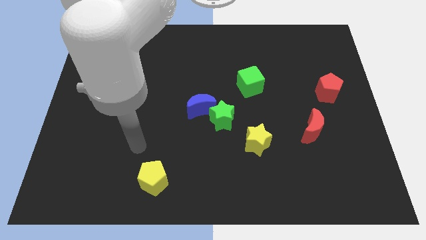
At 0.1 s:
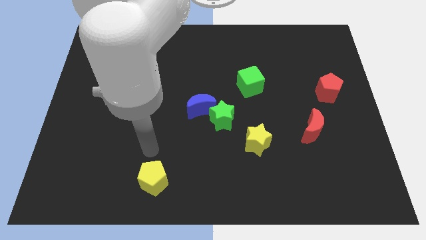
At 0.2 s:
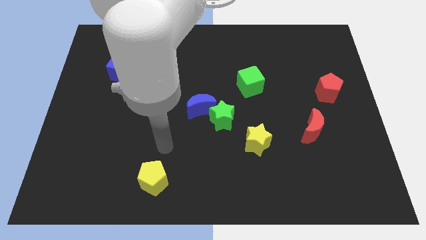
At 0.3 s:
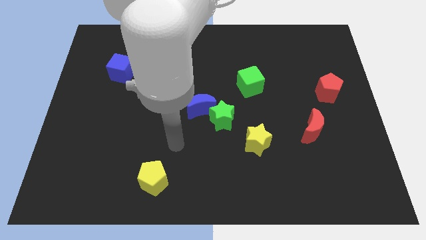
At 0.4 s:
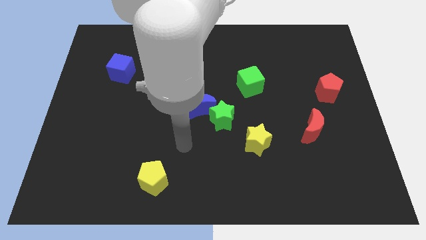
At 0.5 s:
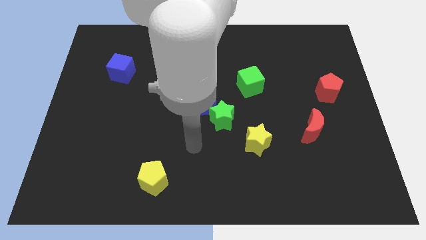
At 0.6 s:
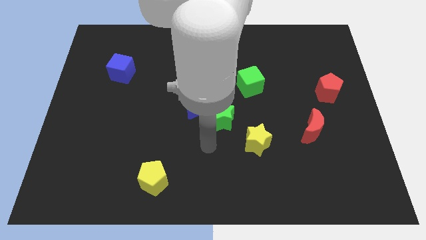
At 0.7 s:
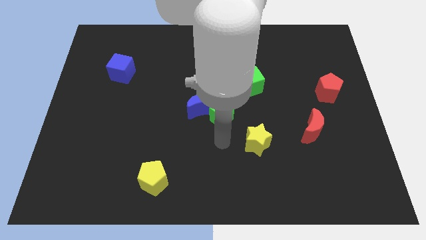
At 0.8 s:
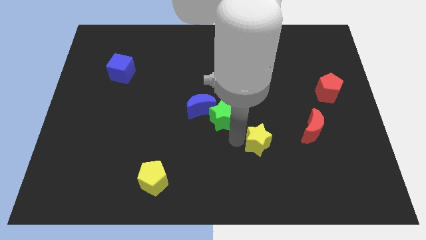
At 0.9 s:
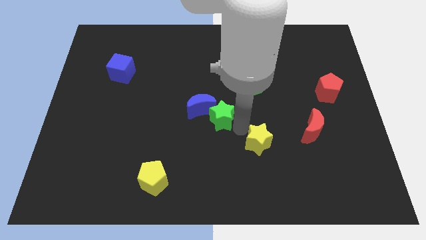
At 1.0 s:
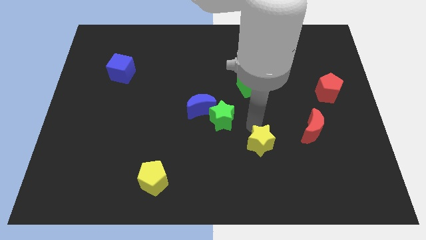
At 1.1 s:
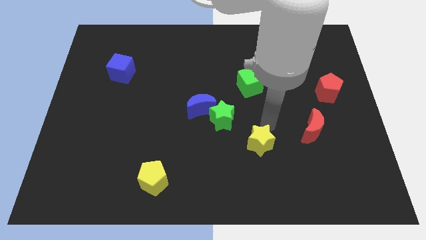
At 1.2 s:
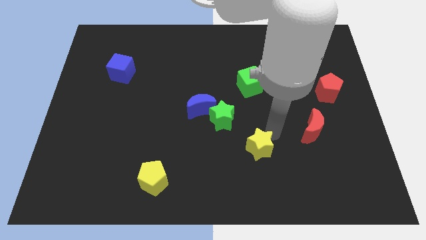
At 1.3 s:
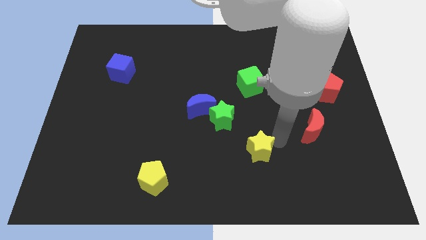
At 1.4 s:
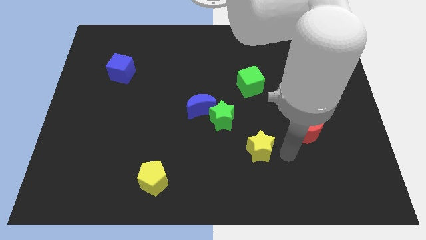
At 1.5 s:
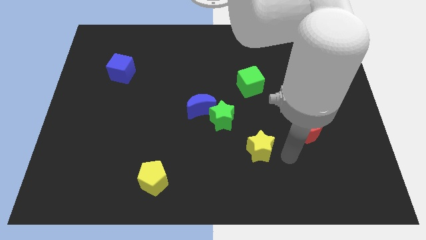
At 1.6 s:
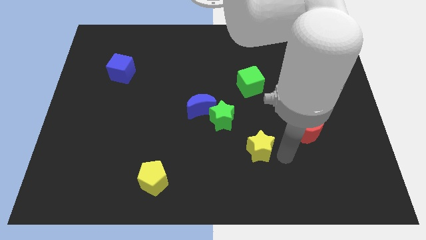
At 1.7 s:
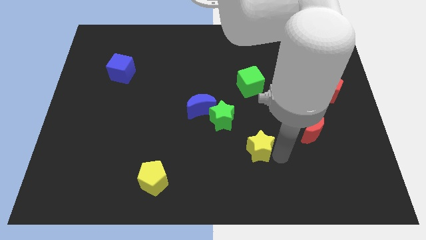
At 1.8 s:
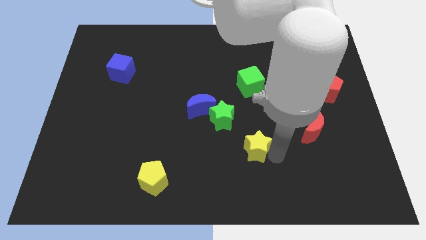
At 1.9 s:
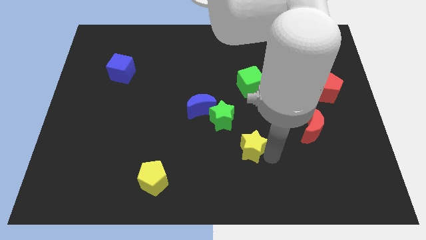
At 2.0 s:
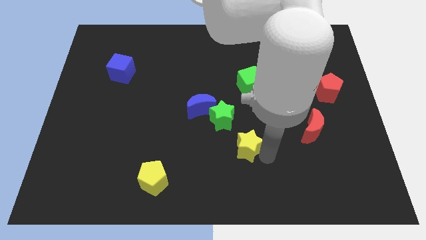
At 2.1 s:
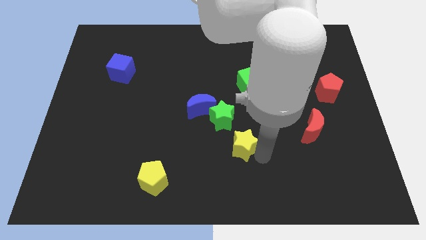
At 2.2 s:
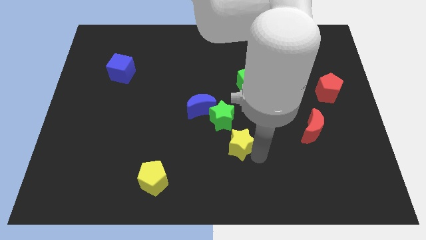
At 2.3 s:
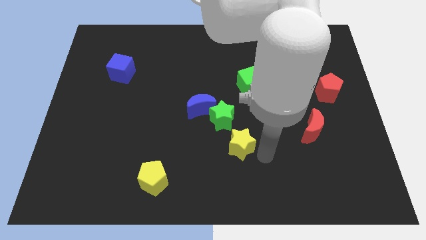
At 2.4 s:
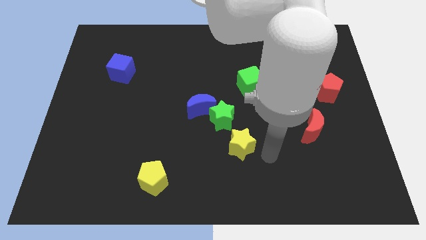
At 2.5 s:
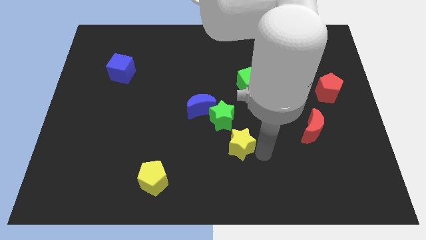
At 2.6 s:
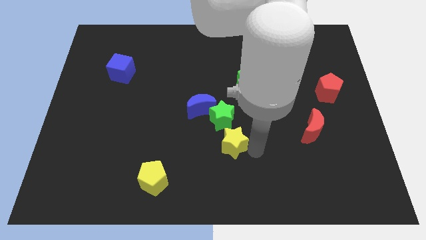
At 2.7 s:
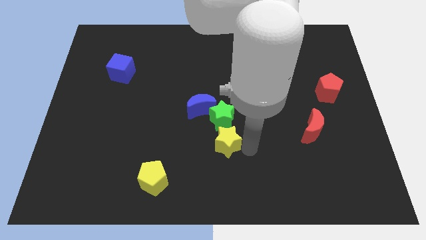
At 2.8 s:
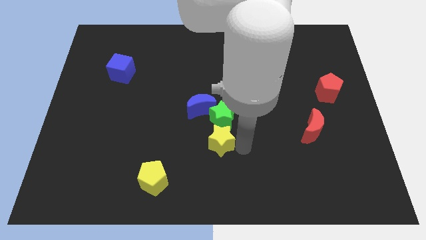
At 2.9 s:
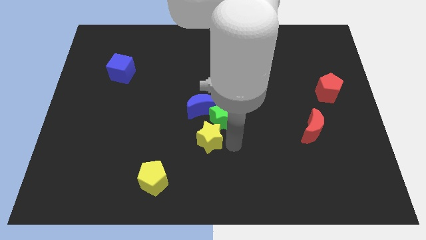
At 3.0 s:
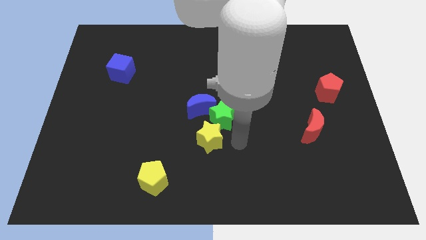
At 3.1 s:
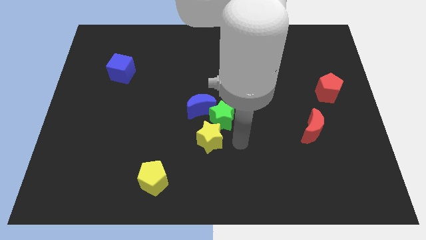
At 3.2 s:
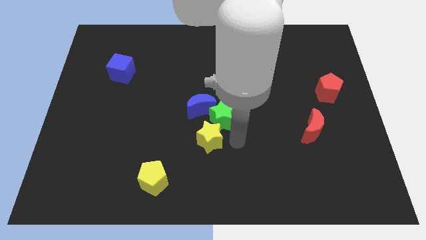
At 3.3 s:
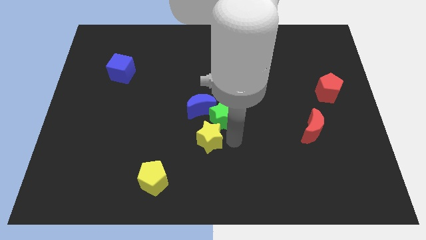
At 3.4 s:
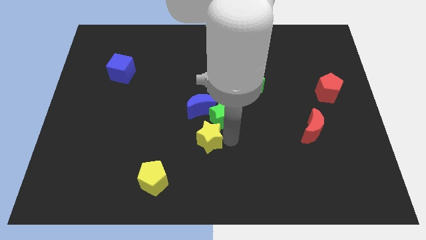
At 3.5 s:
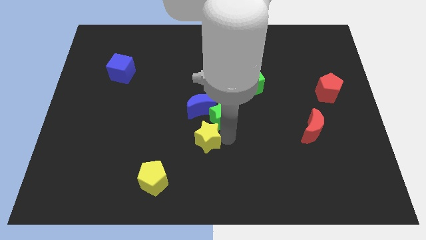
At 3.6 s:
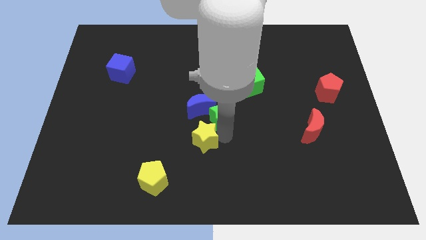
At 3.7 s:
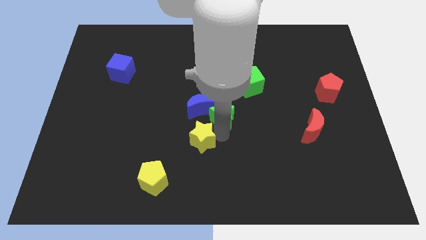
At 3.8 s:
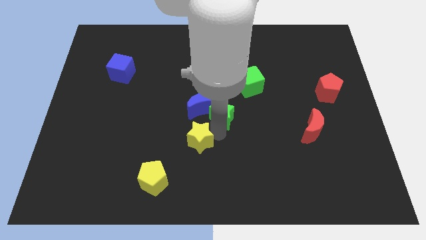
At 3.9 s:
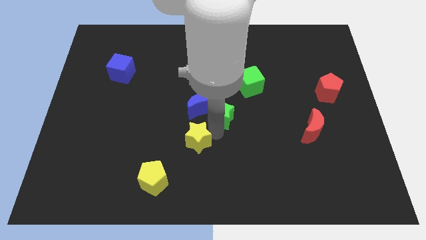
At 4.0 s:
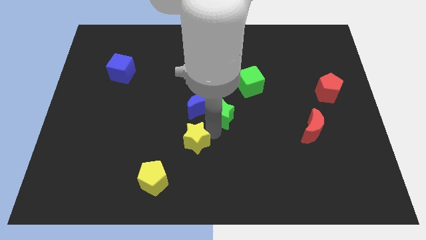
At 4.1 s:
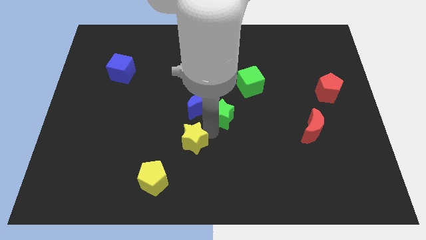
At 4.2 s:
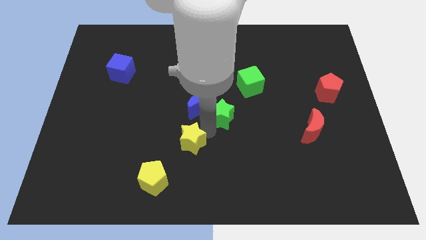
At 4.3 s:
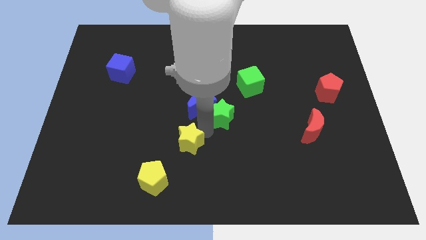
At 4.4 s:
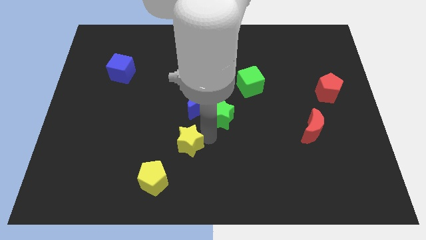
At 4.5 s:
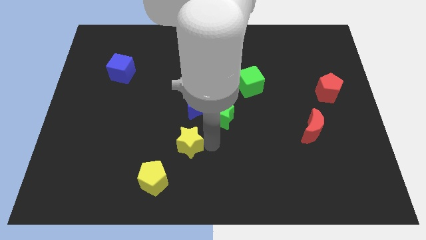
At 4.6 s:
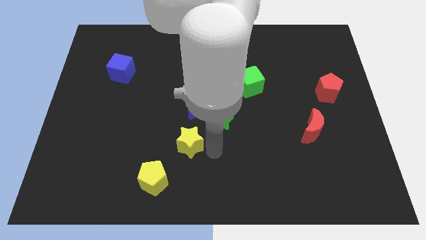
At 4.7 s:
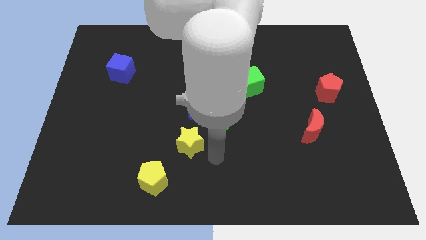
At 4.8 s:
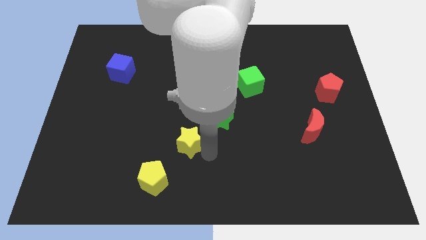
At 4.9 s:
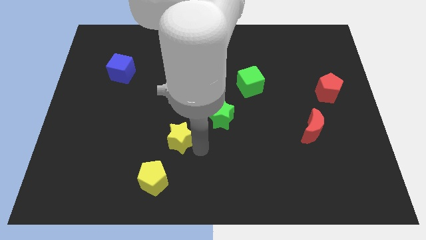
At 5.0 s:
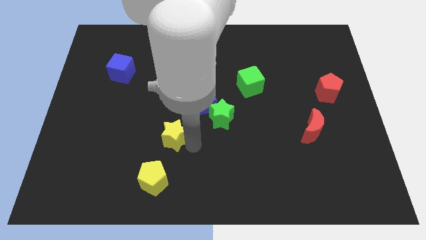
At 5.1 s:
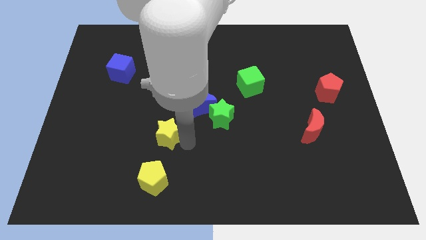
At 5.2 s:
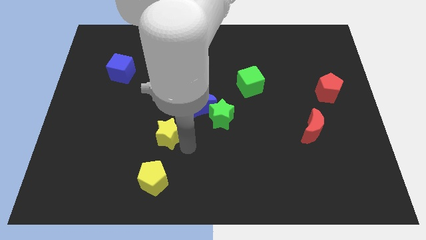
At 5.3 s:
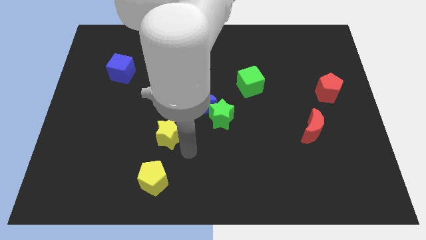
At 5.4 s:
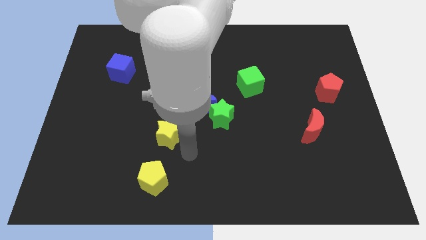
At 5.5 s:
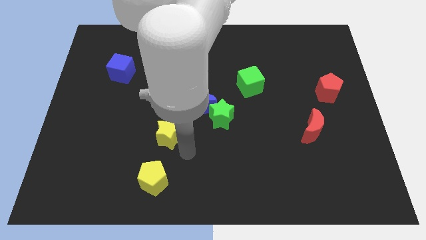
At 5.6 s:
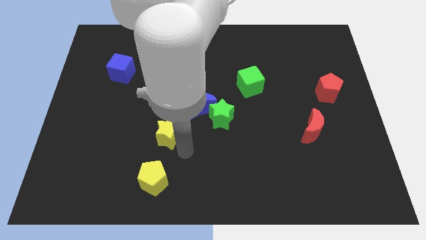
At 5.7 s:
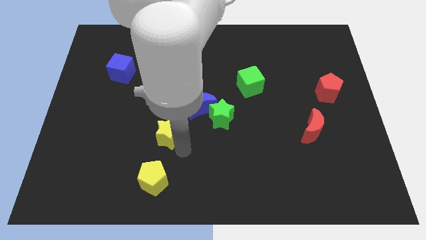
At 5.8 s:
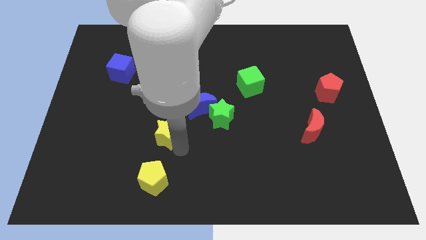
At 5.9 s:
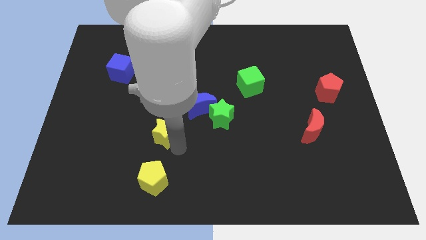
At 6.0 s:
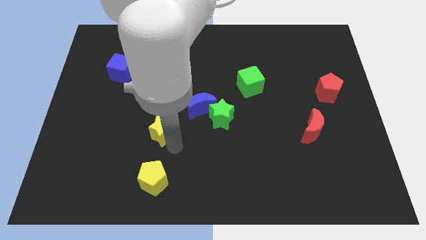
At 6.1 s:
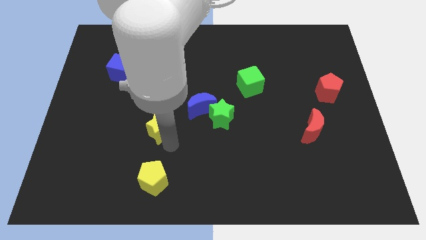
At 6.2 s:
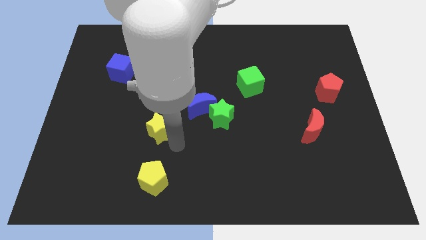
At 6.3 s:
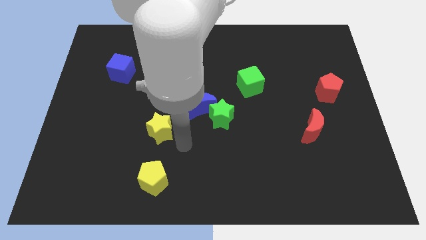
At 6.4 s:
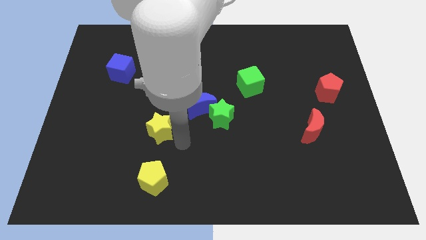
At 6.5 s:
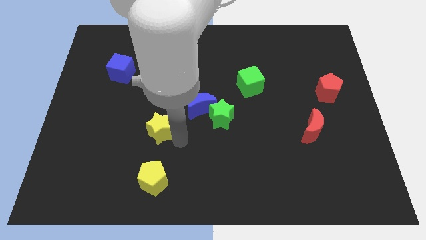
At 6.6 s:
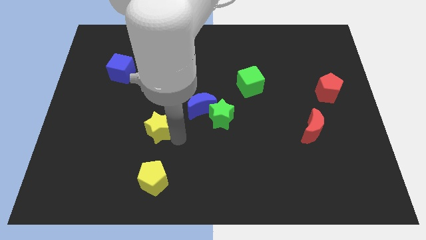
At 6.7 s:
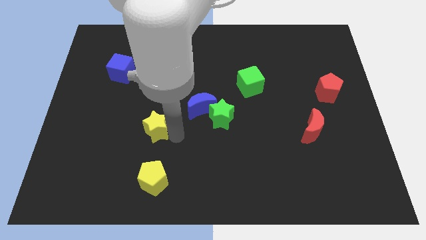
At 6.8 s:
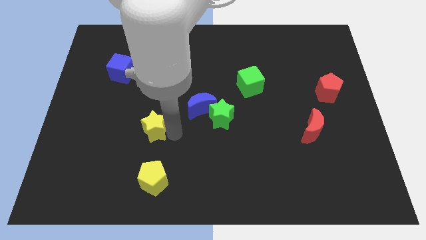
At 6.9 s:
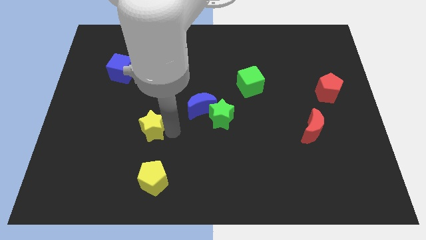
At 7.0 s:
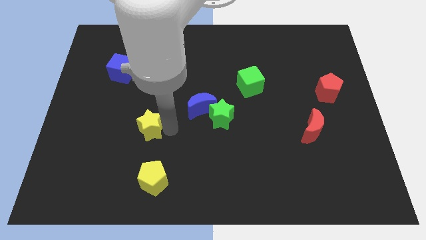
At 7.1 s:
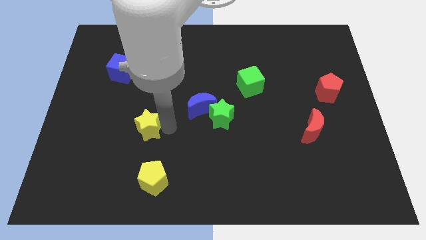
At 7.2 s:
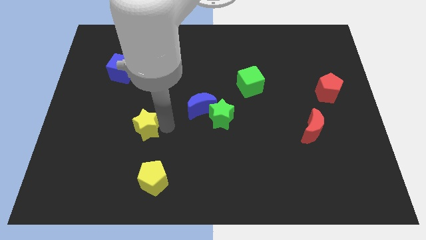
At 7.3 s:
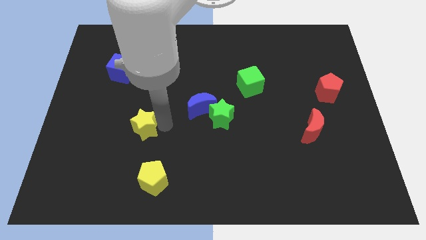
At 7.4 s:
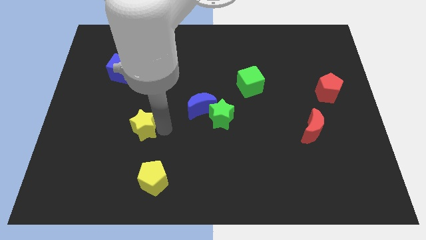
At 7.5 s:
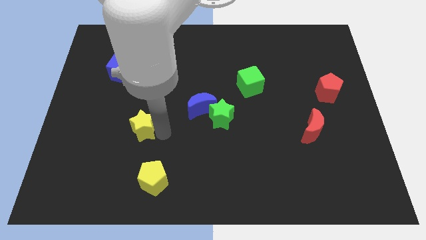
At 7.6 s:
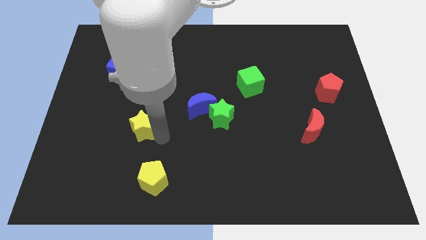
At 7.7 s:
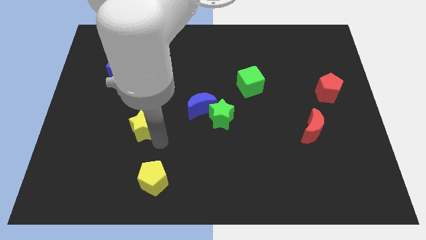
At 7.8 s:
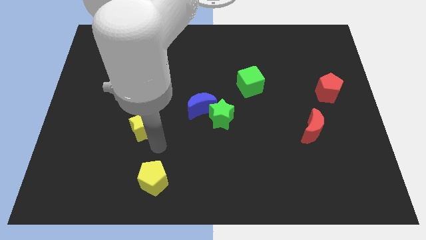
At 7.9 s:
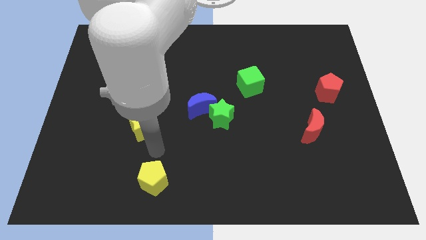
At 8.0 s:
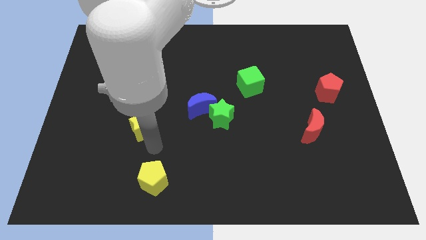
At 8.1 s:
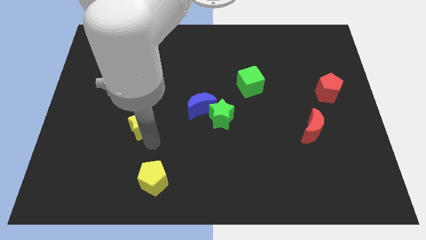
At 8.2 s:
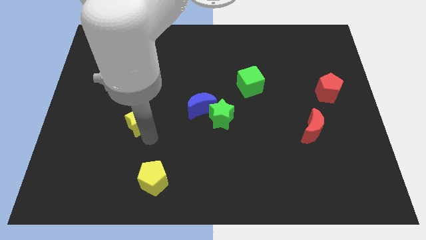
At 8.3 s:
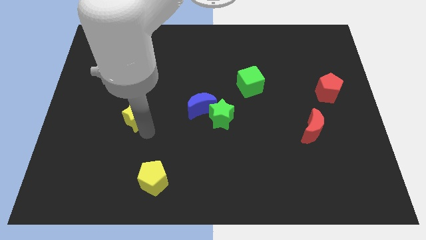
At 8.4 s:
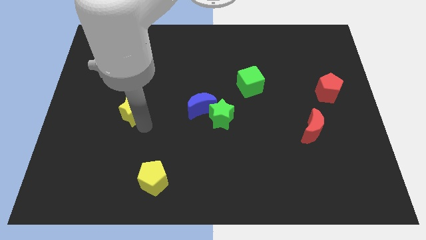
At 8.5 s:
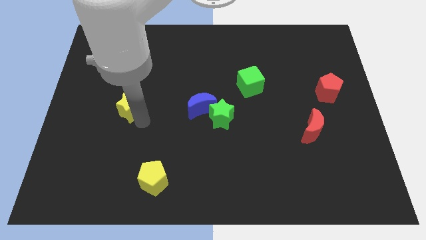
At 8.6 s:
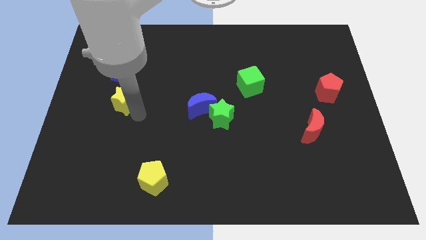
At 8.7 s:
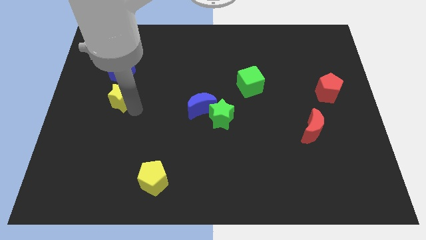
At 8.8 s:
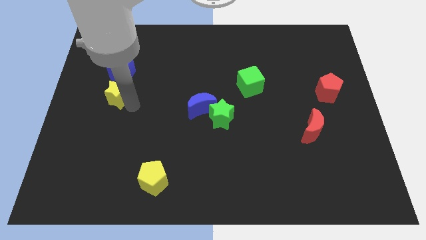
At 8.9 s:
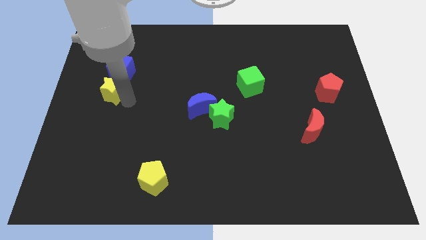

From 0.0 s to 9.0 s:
push the yellow star to the bottom left of the blue cube
